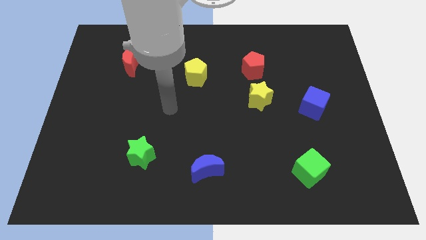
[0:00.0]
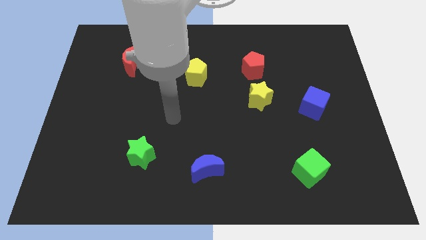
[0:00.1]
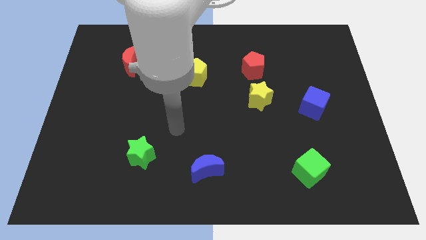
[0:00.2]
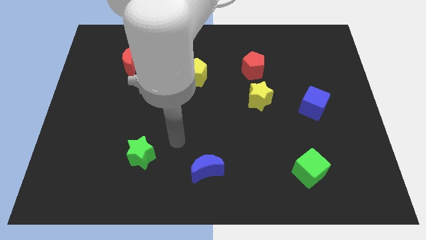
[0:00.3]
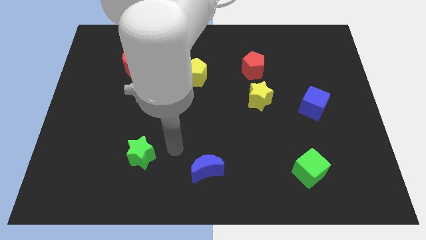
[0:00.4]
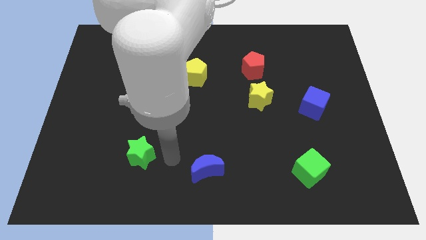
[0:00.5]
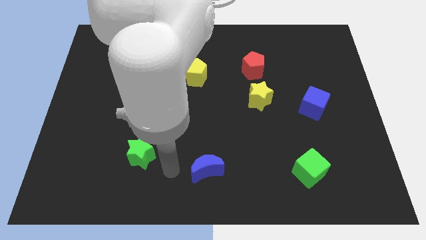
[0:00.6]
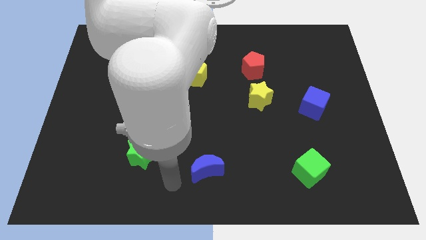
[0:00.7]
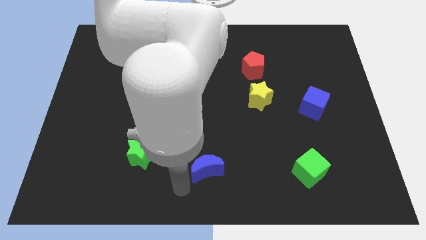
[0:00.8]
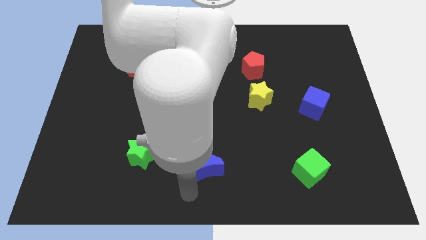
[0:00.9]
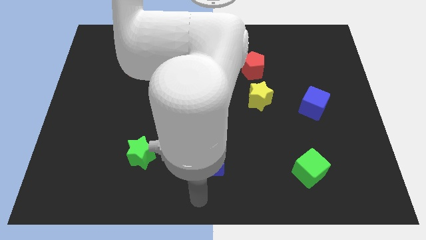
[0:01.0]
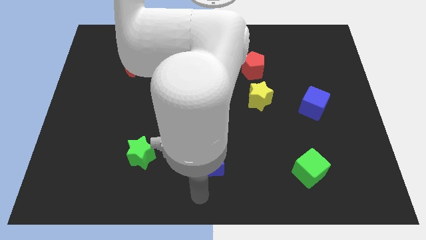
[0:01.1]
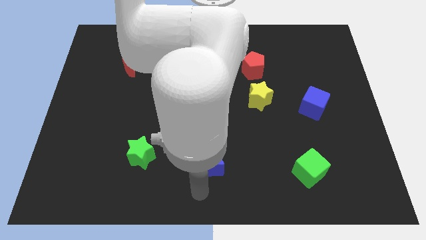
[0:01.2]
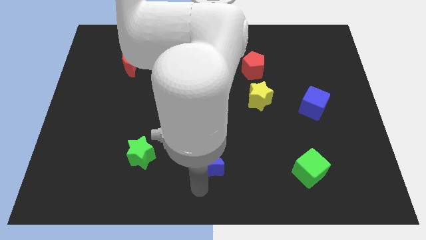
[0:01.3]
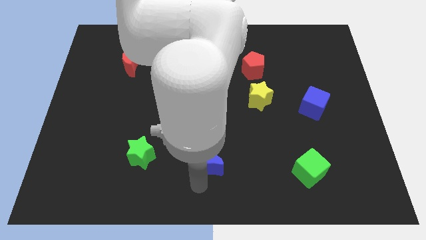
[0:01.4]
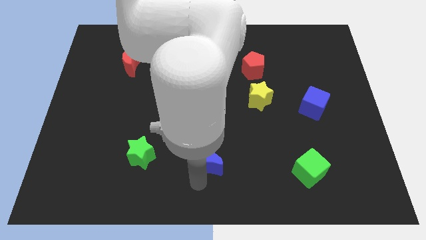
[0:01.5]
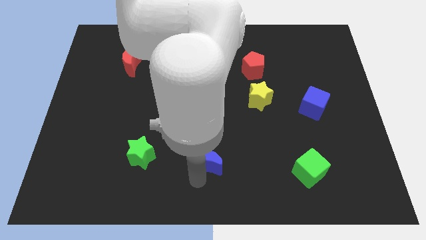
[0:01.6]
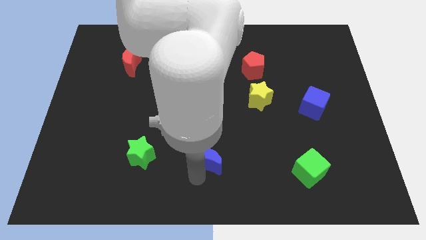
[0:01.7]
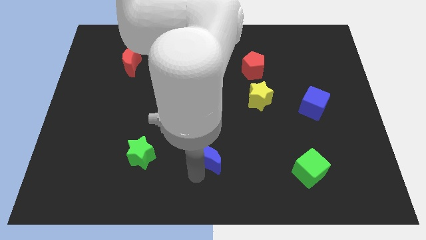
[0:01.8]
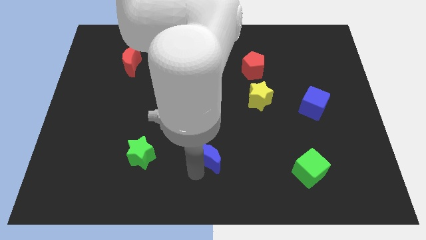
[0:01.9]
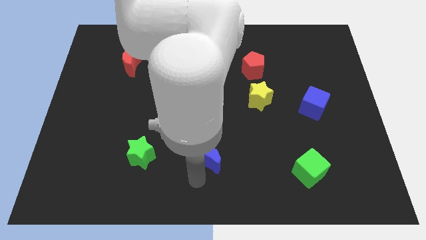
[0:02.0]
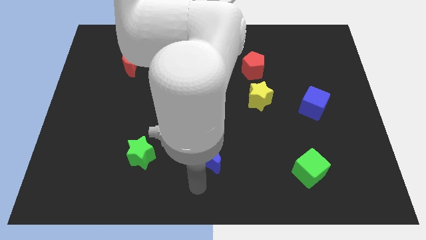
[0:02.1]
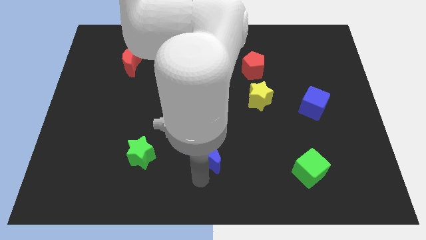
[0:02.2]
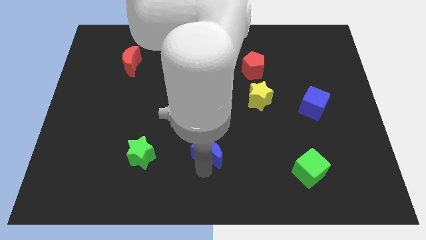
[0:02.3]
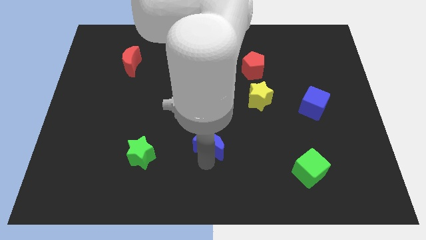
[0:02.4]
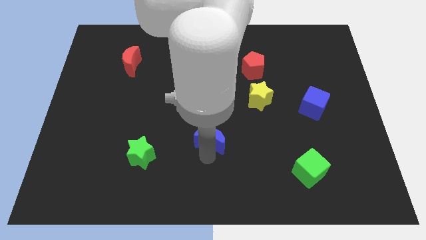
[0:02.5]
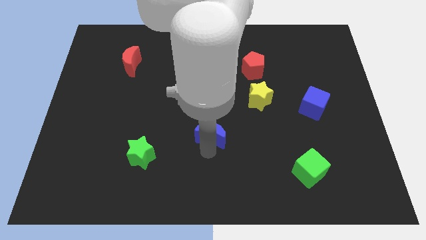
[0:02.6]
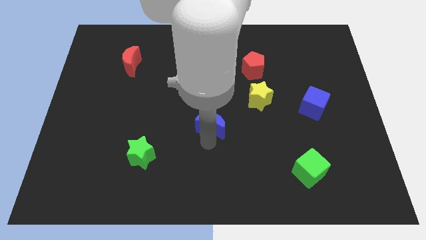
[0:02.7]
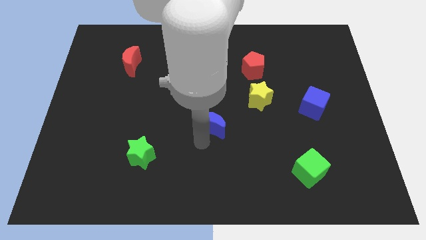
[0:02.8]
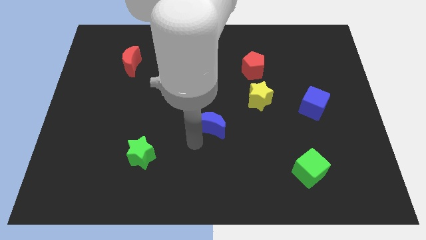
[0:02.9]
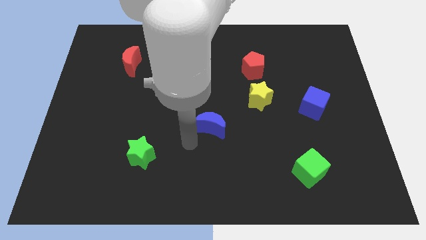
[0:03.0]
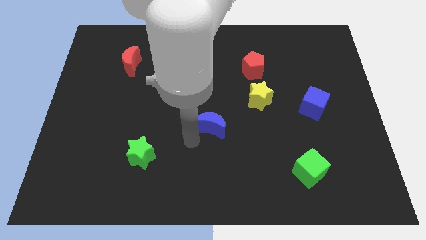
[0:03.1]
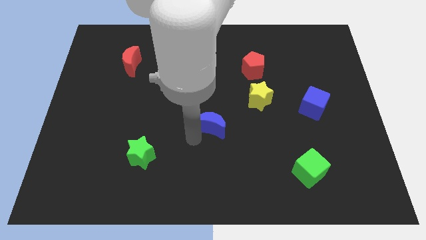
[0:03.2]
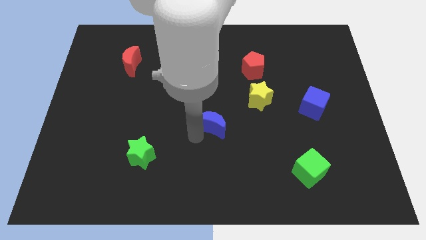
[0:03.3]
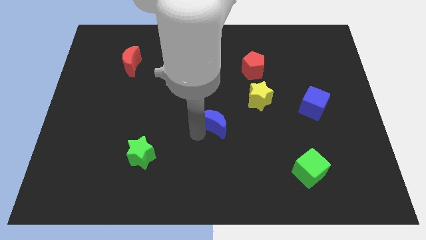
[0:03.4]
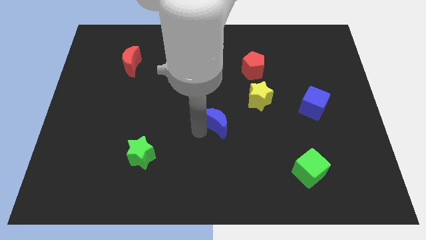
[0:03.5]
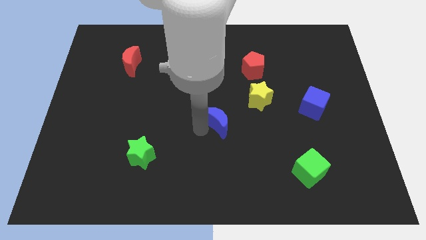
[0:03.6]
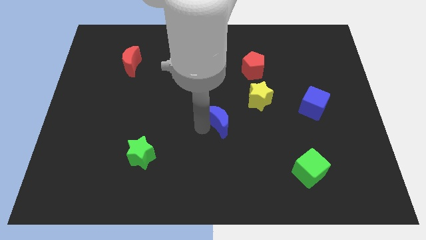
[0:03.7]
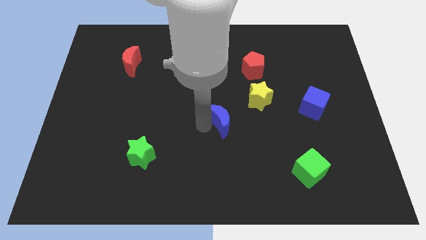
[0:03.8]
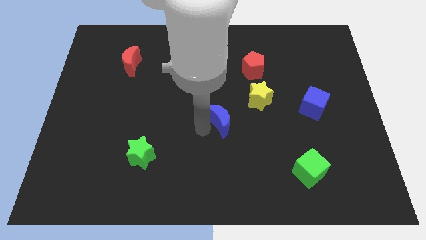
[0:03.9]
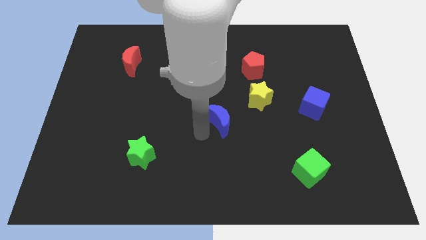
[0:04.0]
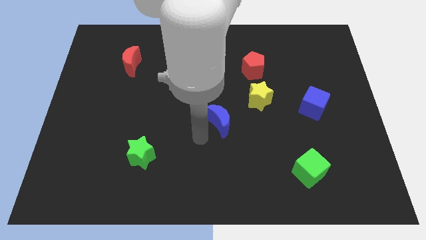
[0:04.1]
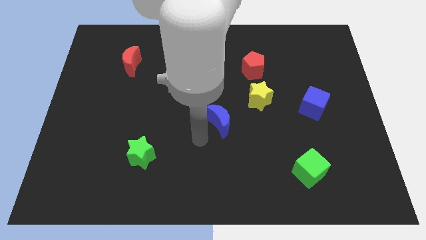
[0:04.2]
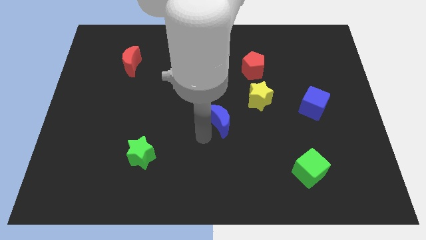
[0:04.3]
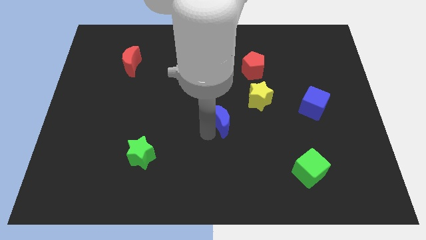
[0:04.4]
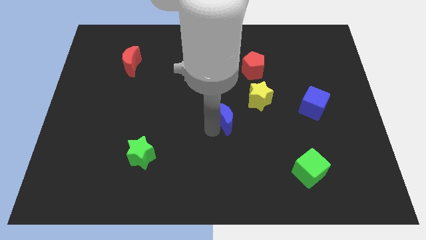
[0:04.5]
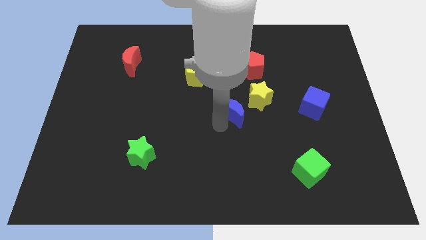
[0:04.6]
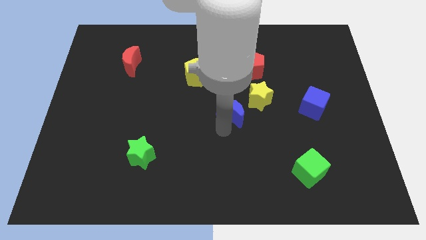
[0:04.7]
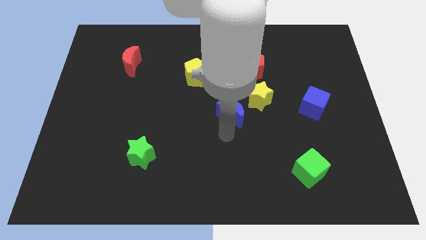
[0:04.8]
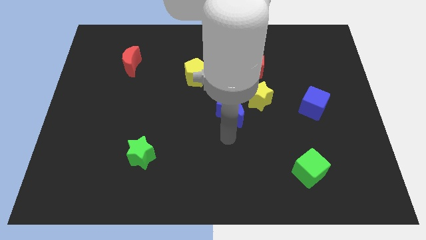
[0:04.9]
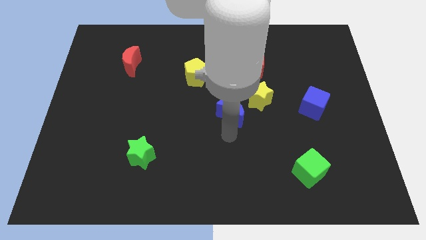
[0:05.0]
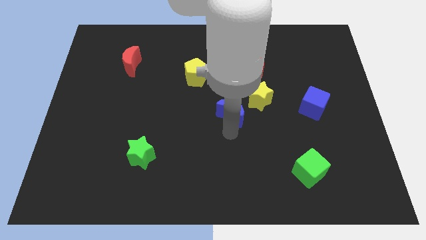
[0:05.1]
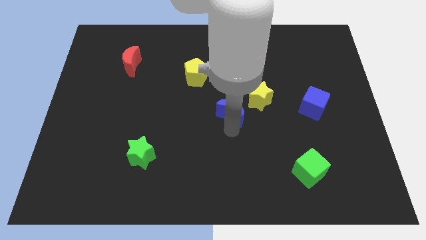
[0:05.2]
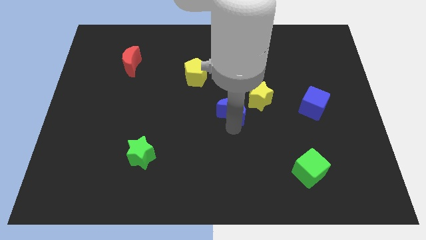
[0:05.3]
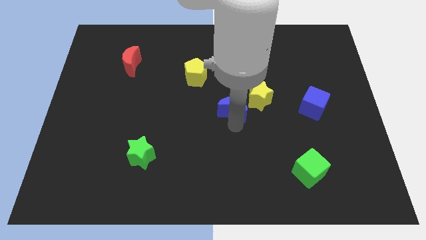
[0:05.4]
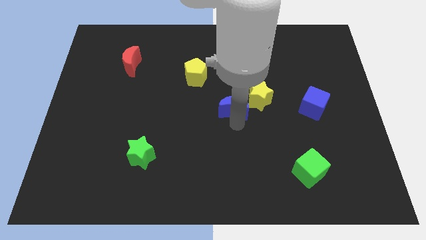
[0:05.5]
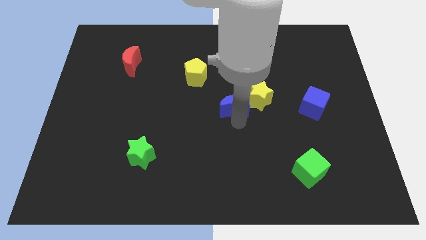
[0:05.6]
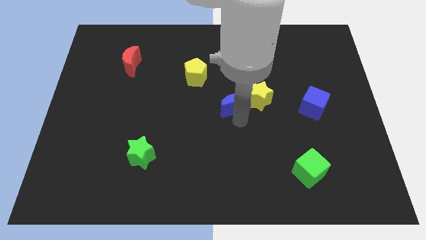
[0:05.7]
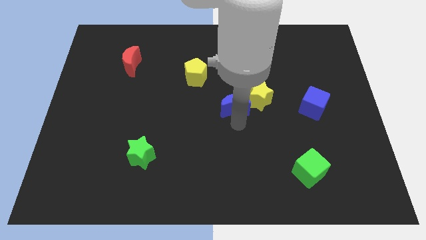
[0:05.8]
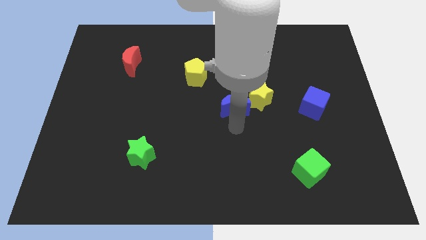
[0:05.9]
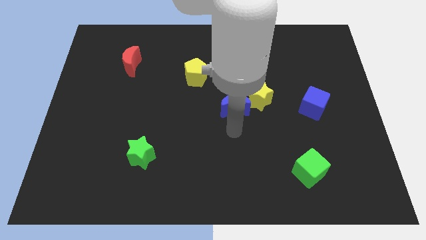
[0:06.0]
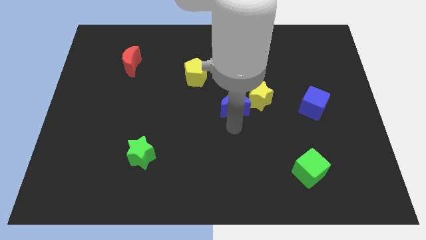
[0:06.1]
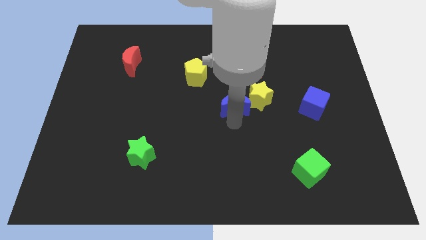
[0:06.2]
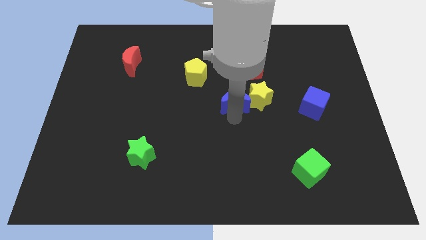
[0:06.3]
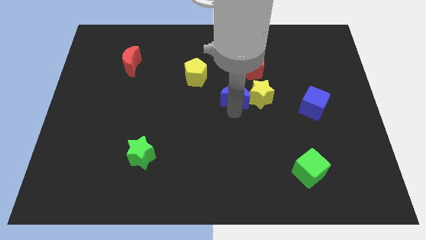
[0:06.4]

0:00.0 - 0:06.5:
push the blue moon diagonally up and to the left of the yellow star
